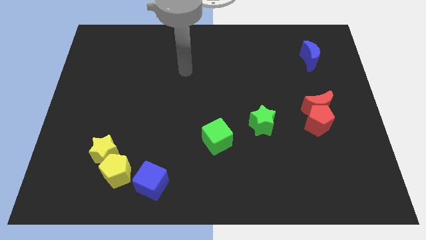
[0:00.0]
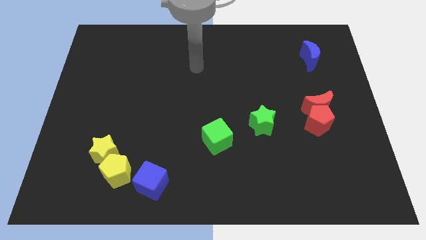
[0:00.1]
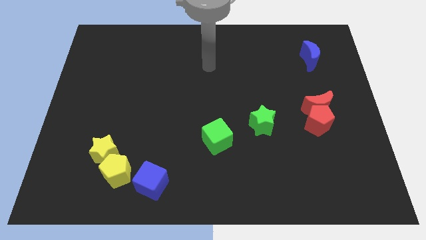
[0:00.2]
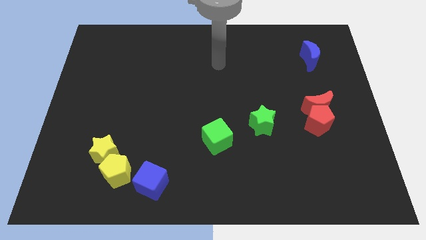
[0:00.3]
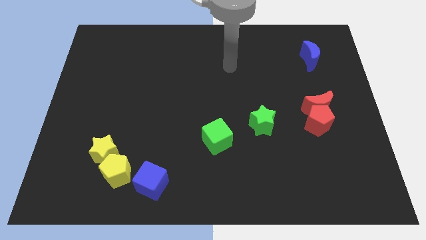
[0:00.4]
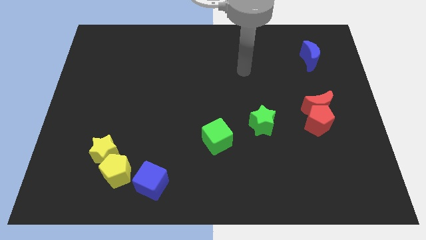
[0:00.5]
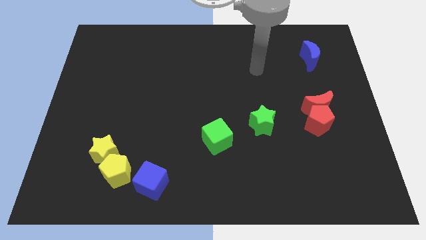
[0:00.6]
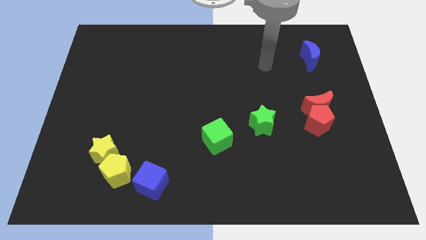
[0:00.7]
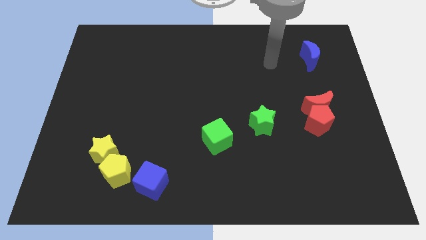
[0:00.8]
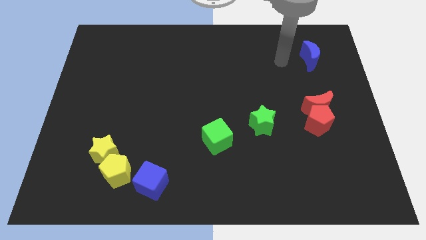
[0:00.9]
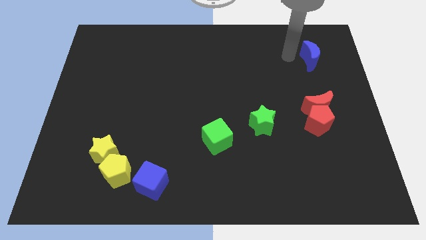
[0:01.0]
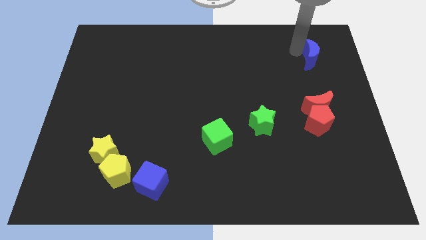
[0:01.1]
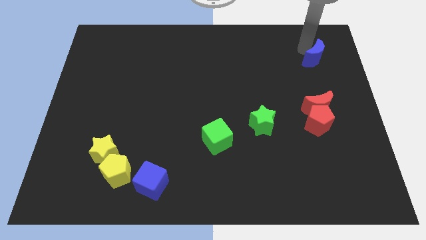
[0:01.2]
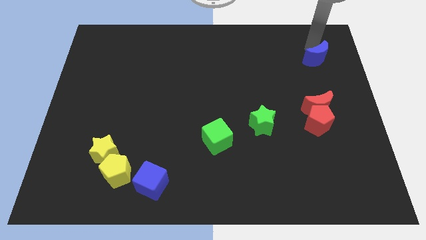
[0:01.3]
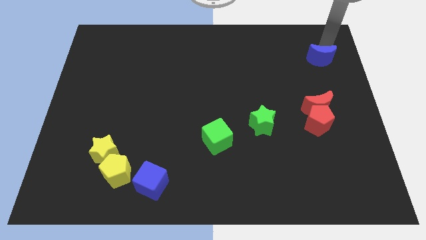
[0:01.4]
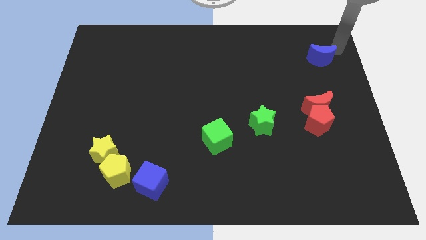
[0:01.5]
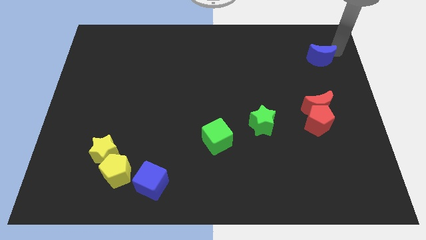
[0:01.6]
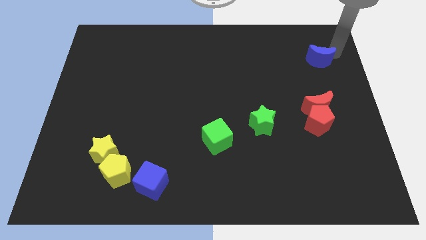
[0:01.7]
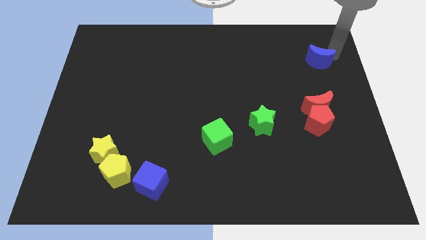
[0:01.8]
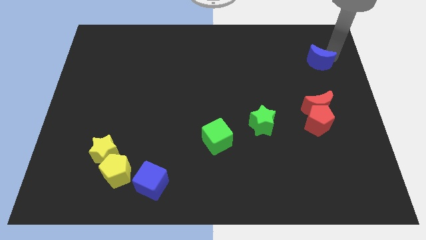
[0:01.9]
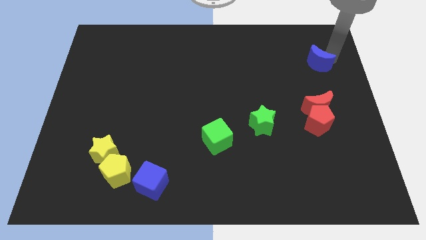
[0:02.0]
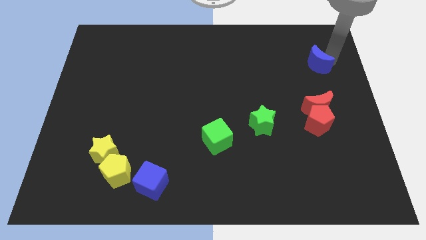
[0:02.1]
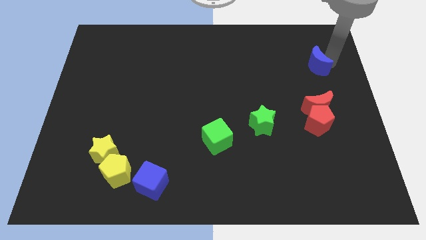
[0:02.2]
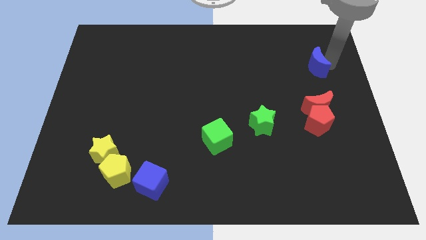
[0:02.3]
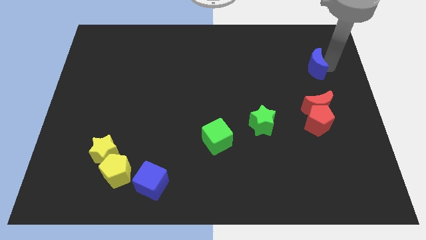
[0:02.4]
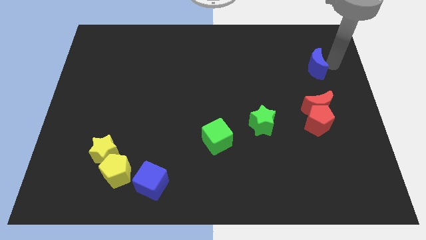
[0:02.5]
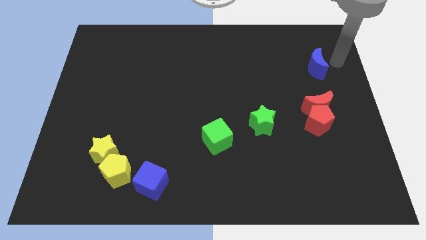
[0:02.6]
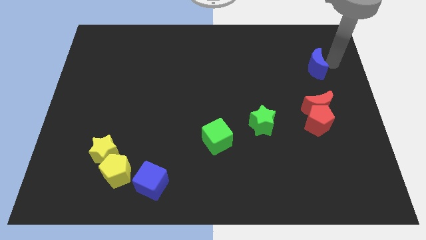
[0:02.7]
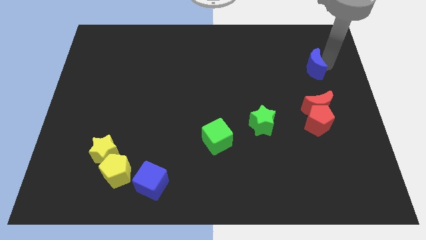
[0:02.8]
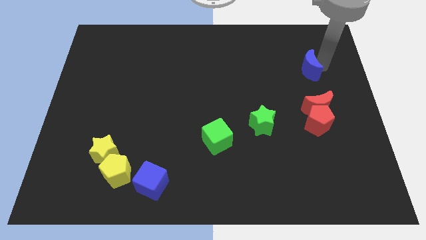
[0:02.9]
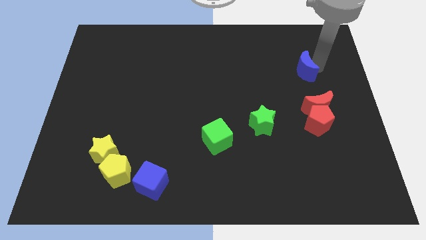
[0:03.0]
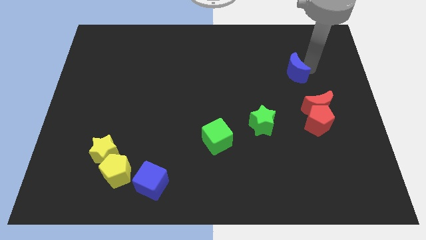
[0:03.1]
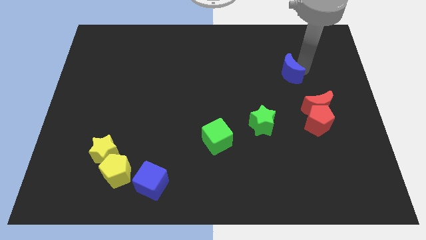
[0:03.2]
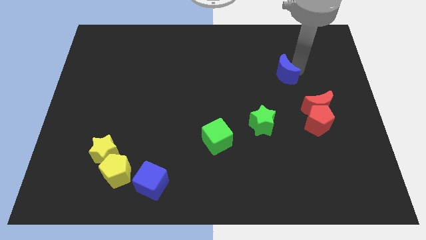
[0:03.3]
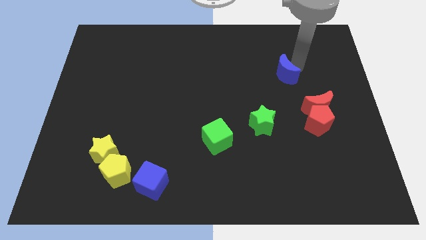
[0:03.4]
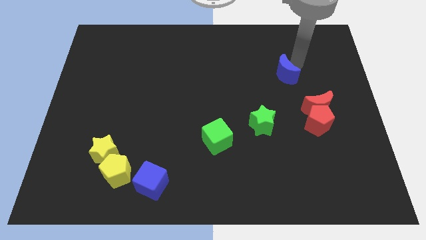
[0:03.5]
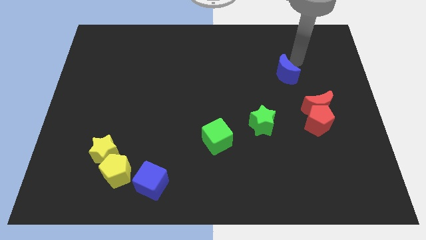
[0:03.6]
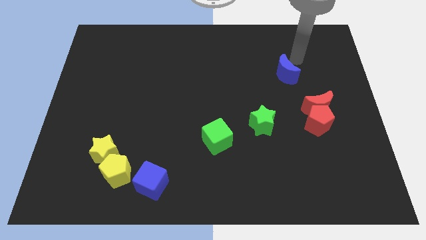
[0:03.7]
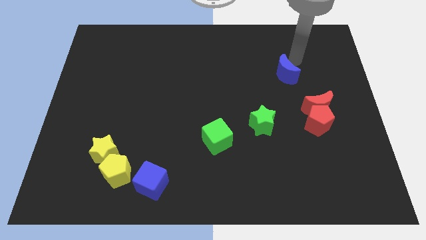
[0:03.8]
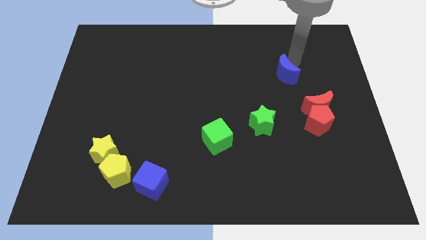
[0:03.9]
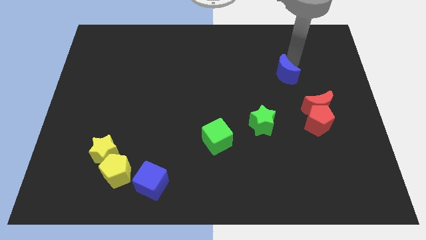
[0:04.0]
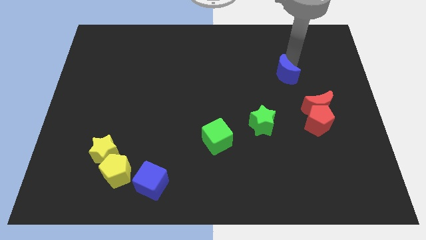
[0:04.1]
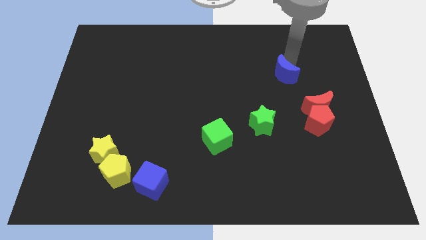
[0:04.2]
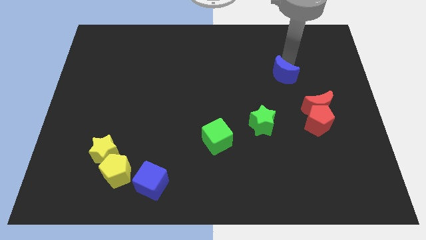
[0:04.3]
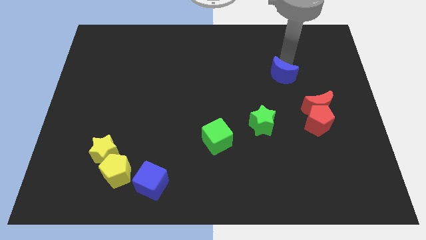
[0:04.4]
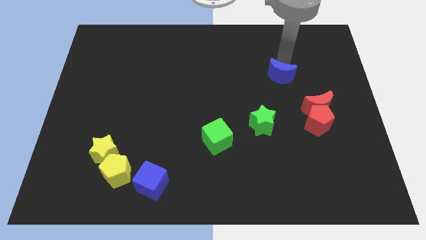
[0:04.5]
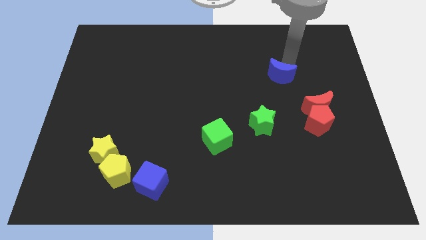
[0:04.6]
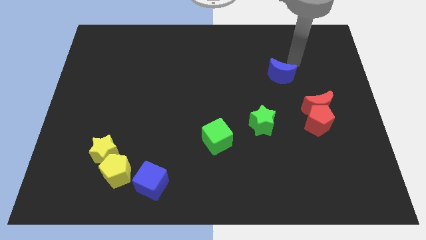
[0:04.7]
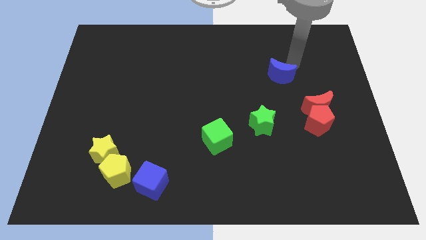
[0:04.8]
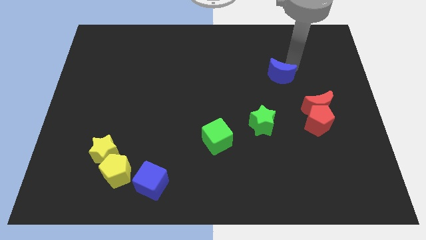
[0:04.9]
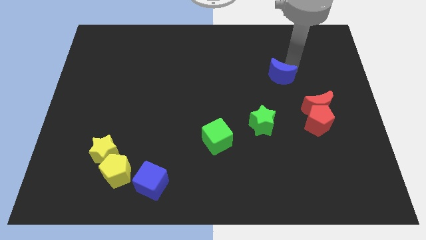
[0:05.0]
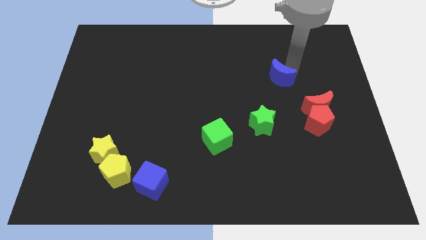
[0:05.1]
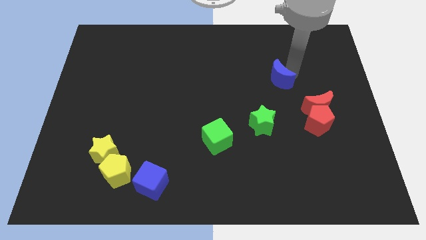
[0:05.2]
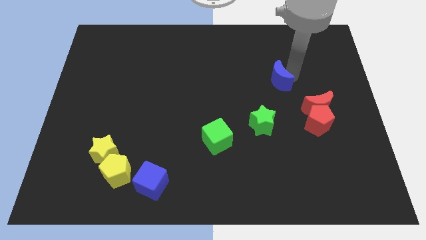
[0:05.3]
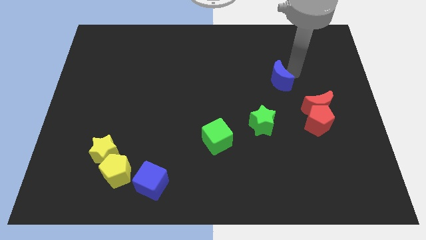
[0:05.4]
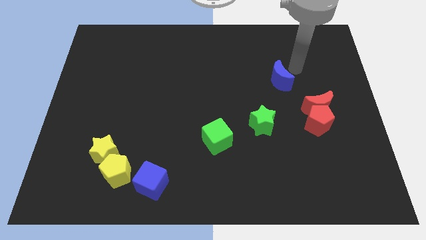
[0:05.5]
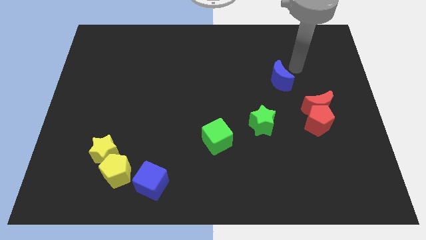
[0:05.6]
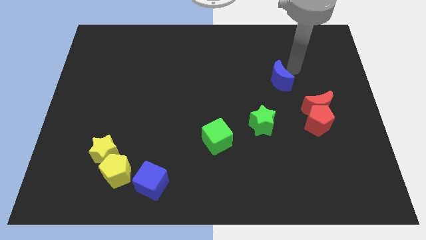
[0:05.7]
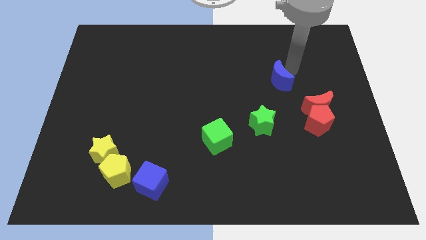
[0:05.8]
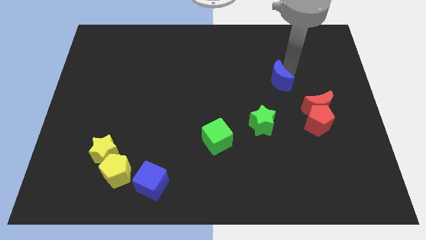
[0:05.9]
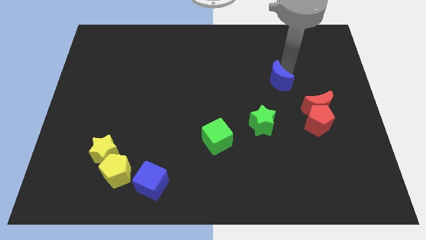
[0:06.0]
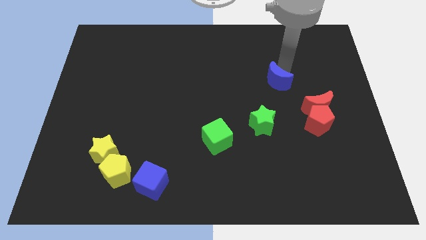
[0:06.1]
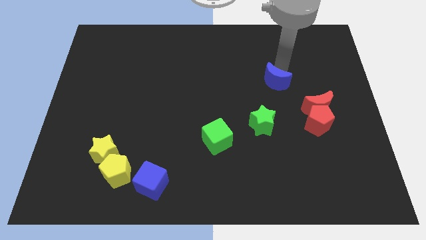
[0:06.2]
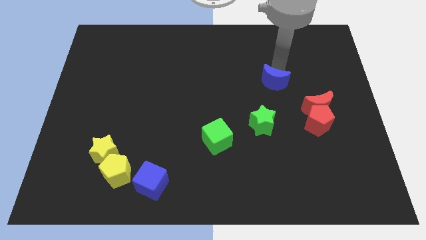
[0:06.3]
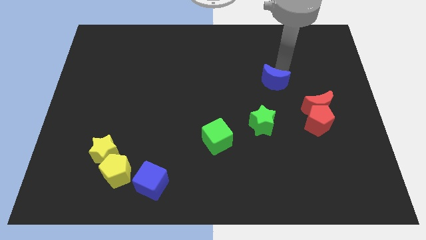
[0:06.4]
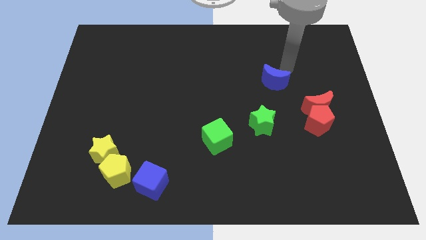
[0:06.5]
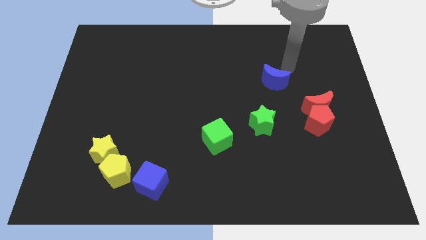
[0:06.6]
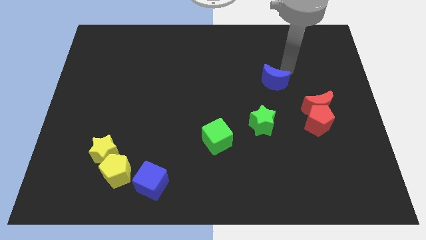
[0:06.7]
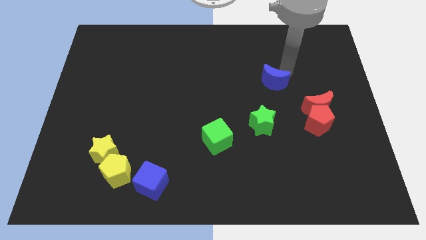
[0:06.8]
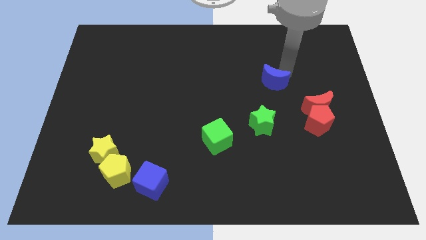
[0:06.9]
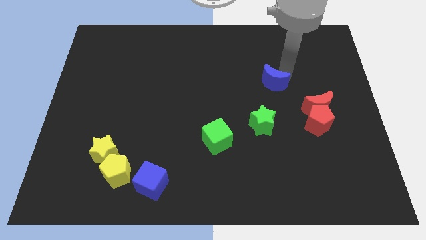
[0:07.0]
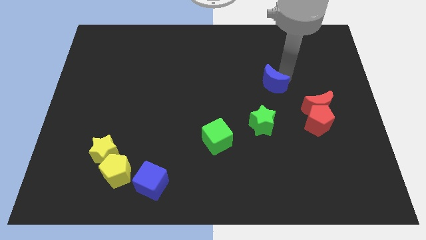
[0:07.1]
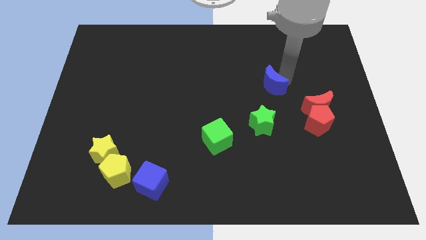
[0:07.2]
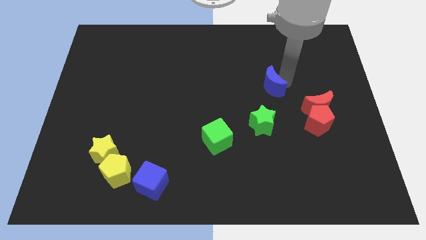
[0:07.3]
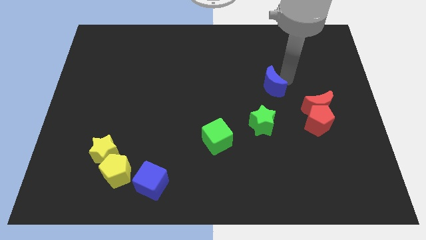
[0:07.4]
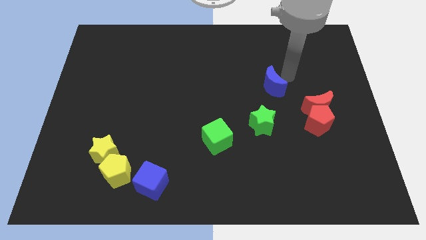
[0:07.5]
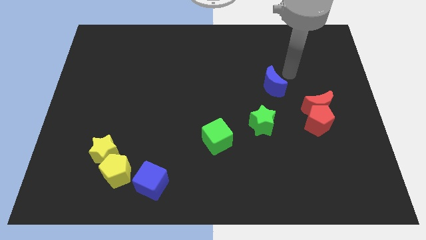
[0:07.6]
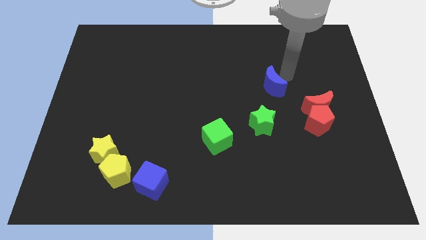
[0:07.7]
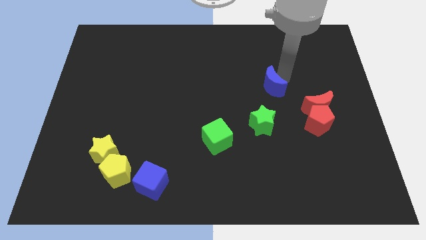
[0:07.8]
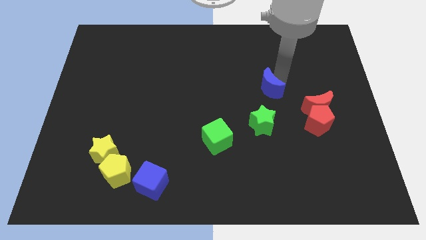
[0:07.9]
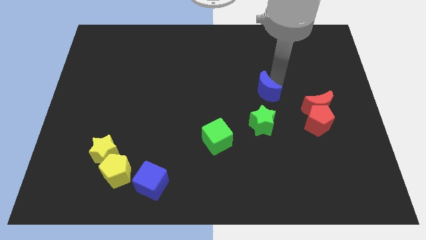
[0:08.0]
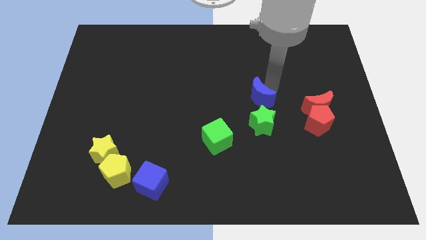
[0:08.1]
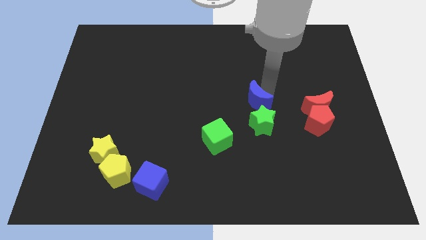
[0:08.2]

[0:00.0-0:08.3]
slide the blue moon diagonally up and to the left of the green star
